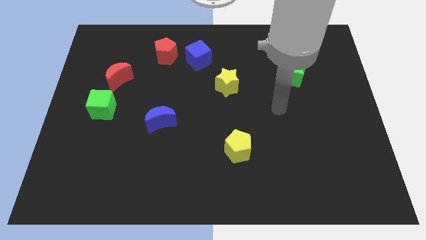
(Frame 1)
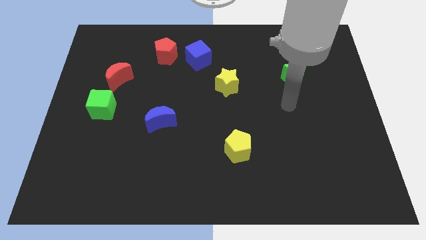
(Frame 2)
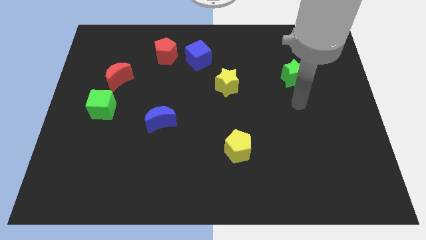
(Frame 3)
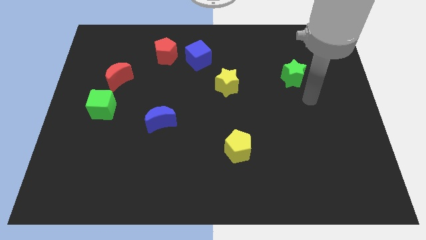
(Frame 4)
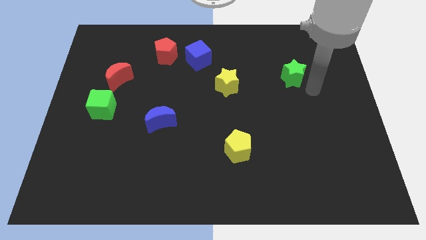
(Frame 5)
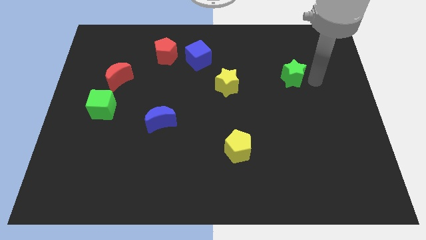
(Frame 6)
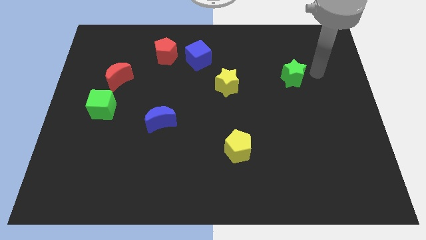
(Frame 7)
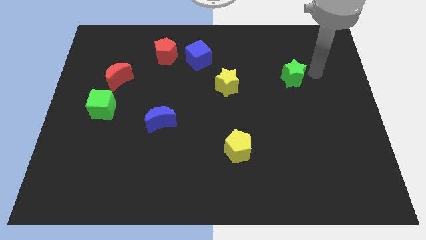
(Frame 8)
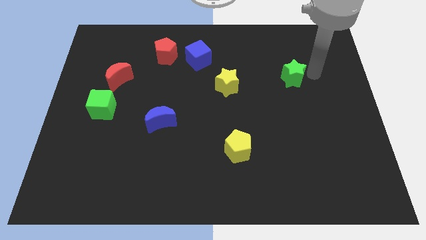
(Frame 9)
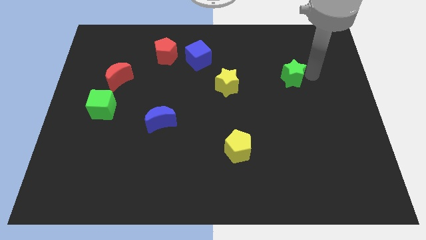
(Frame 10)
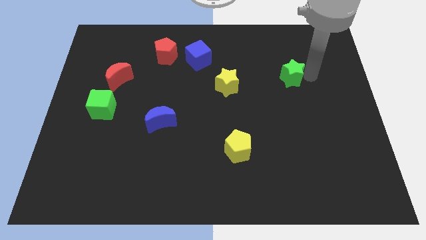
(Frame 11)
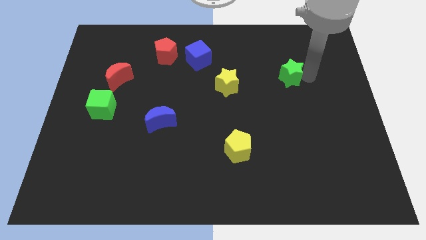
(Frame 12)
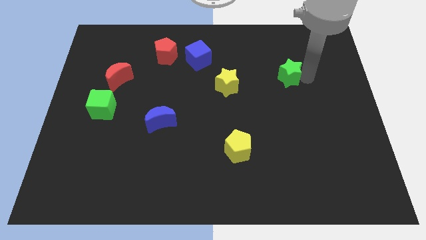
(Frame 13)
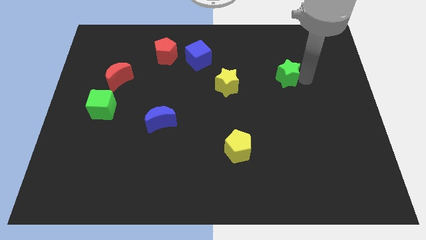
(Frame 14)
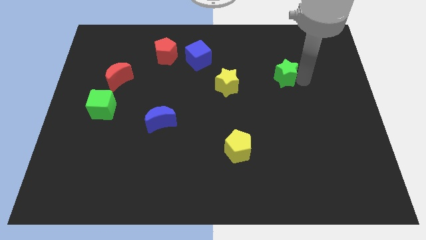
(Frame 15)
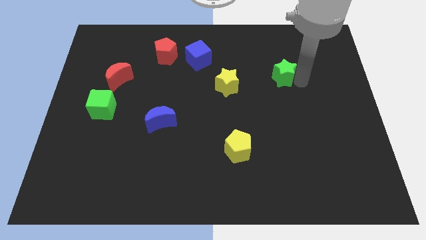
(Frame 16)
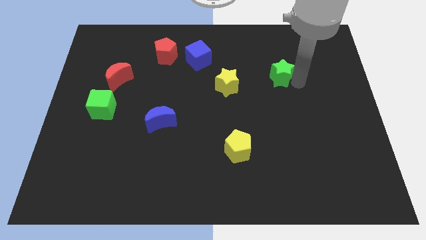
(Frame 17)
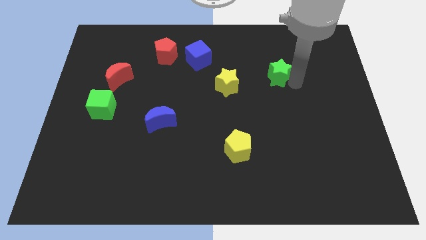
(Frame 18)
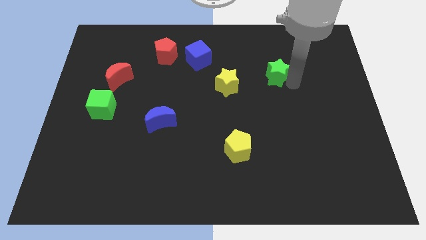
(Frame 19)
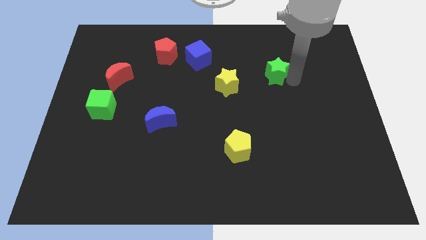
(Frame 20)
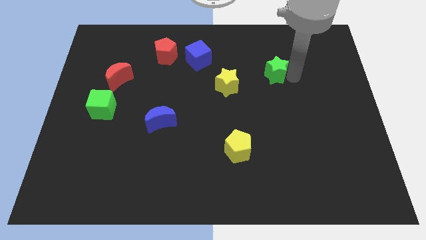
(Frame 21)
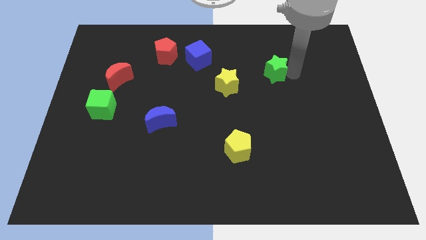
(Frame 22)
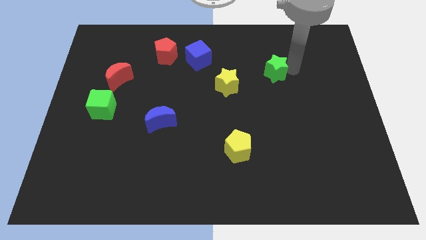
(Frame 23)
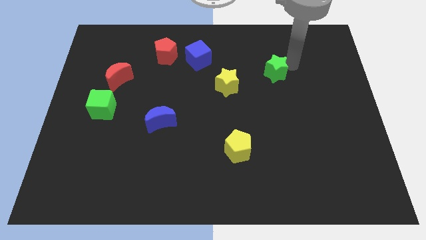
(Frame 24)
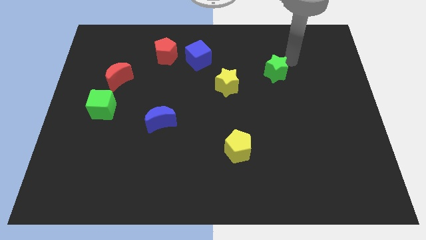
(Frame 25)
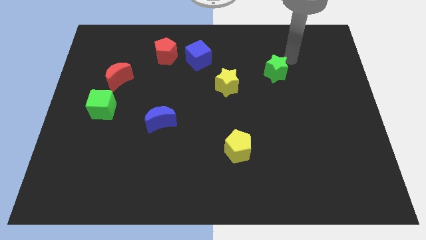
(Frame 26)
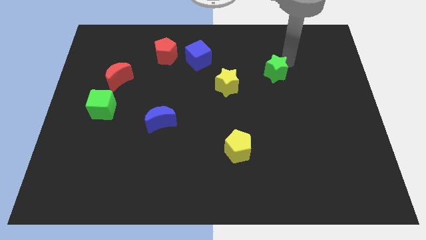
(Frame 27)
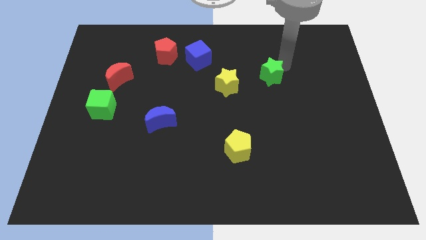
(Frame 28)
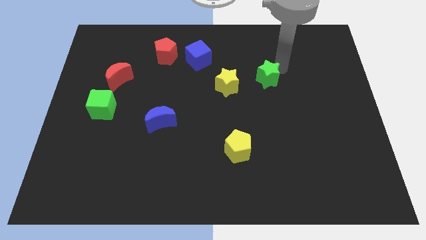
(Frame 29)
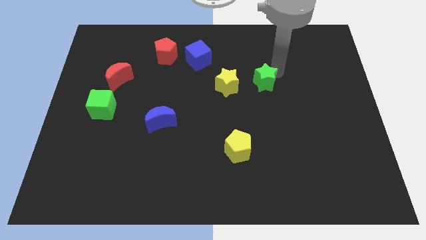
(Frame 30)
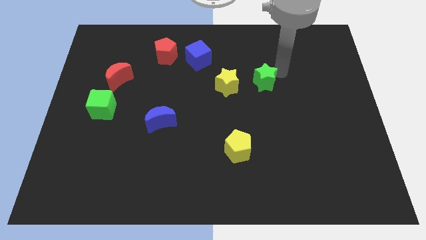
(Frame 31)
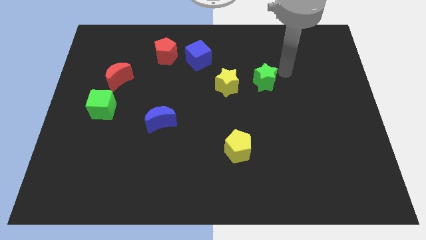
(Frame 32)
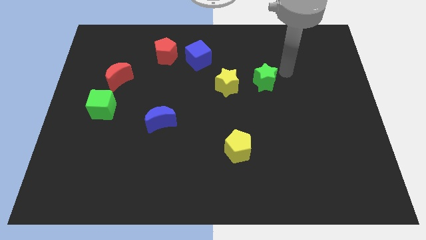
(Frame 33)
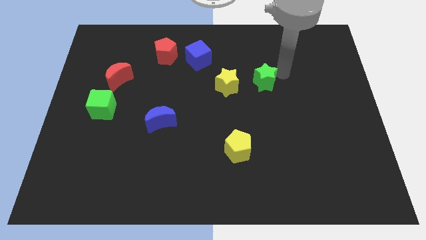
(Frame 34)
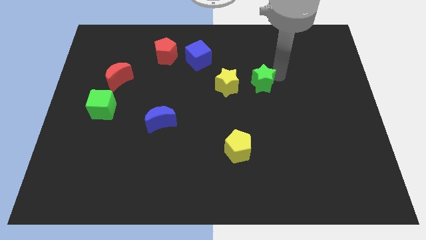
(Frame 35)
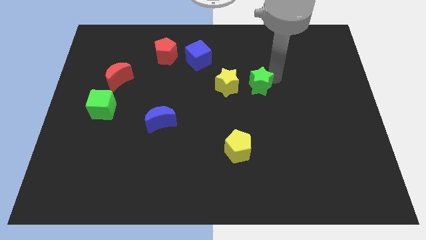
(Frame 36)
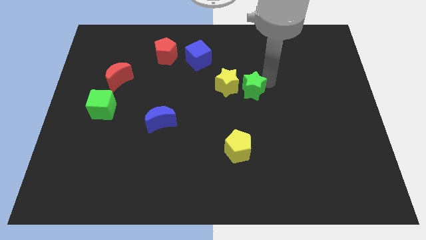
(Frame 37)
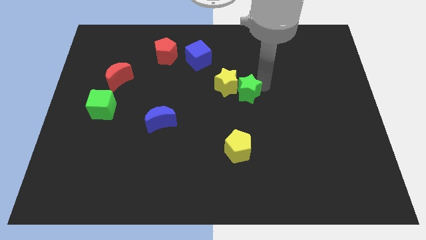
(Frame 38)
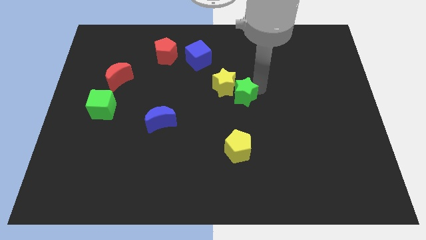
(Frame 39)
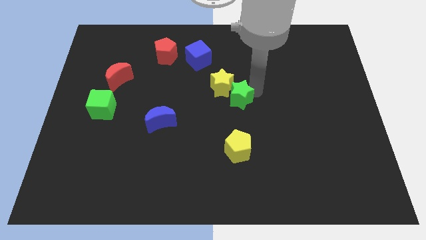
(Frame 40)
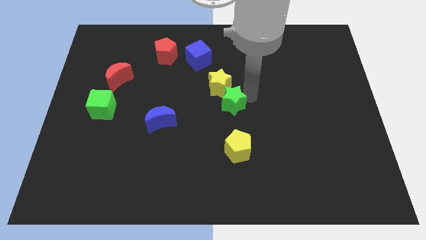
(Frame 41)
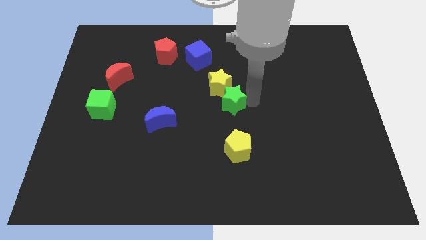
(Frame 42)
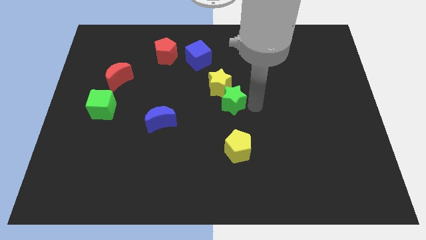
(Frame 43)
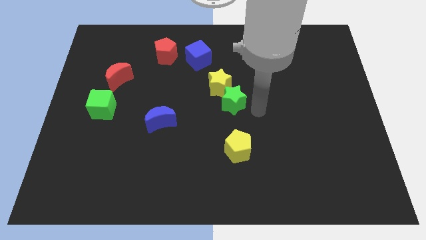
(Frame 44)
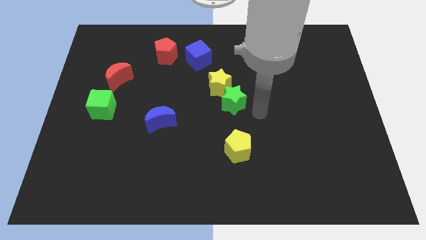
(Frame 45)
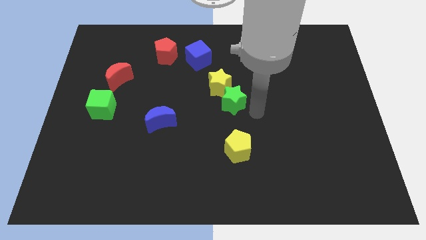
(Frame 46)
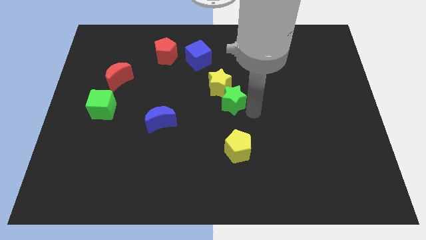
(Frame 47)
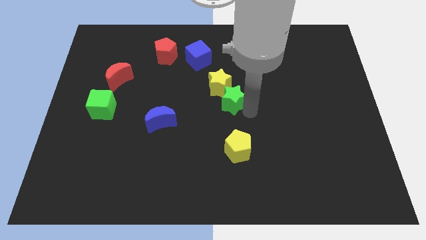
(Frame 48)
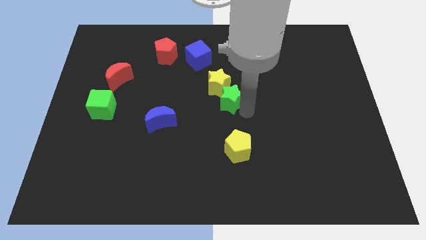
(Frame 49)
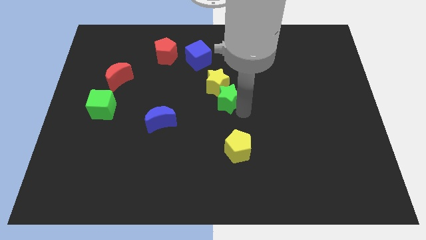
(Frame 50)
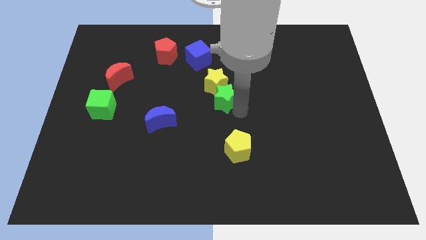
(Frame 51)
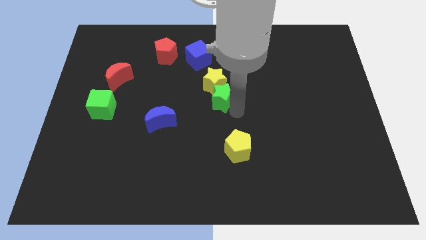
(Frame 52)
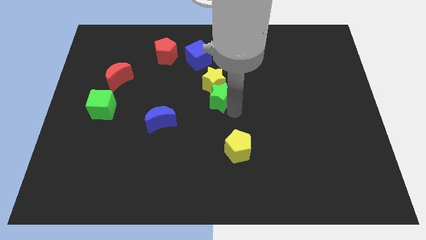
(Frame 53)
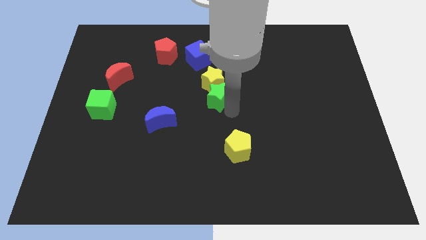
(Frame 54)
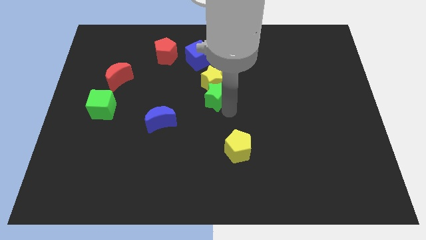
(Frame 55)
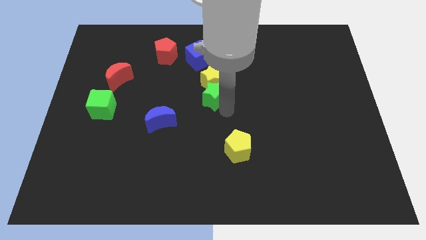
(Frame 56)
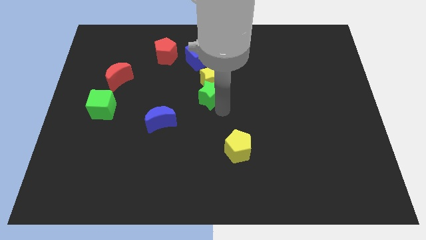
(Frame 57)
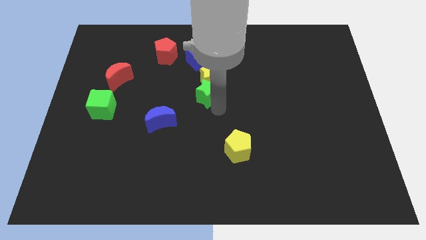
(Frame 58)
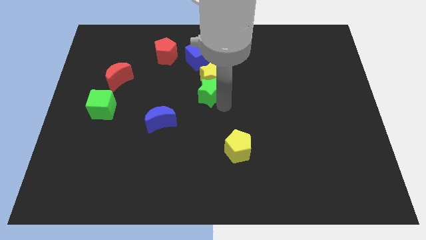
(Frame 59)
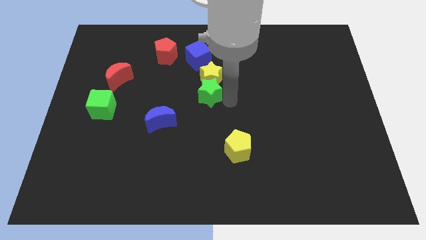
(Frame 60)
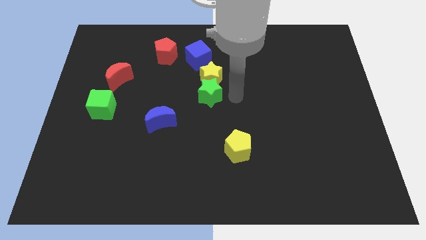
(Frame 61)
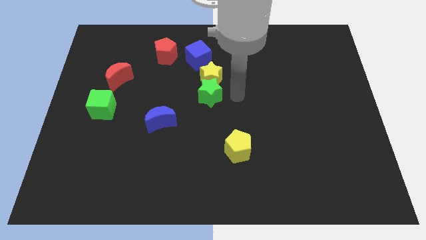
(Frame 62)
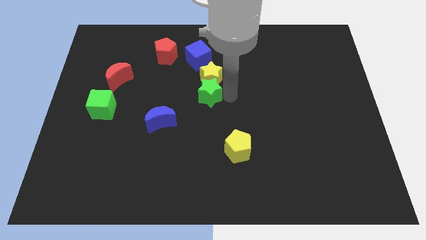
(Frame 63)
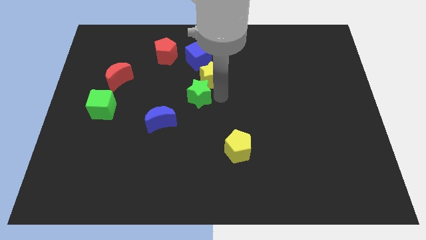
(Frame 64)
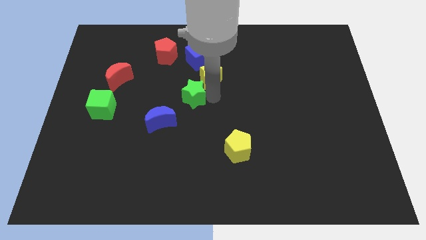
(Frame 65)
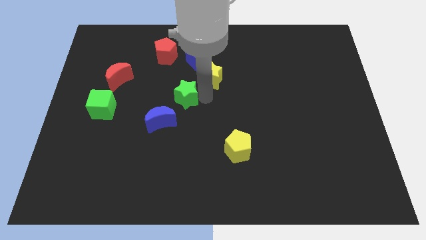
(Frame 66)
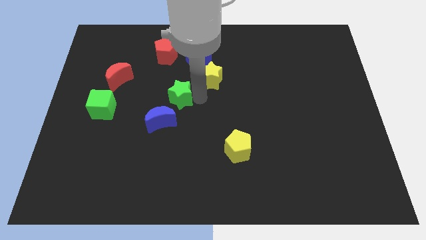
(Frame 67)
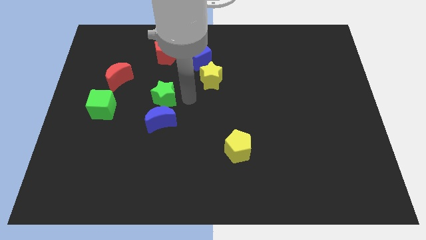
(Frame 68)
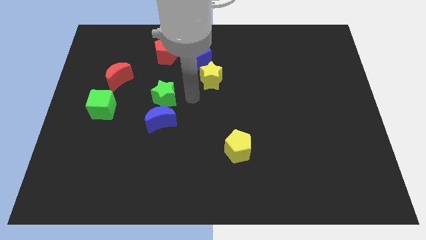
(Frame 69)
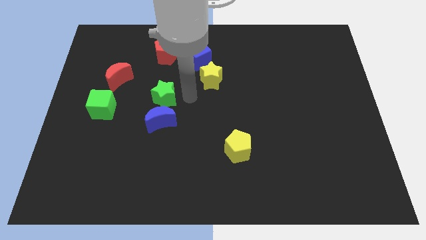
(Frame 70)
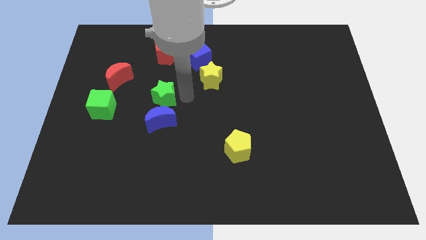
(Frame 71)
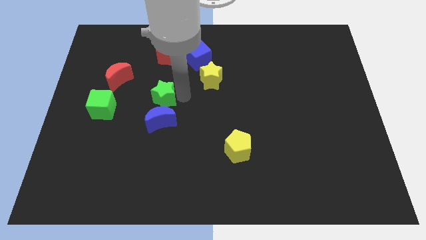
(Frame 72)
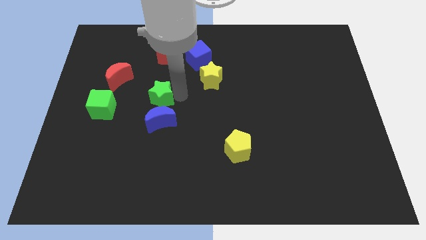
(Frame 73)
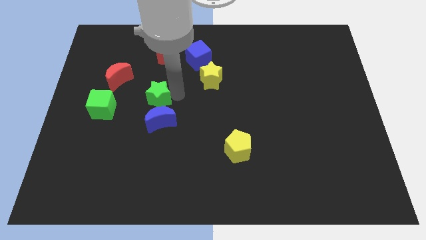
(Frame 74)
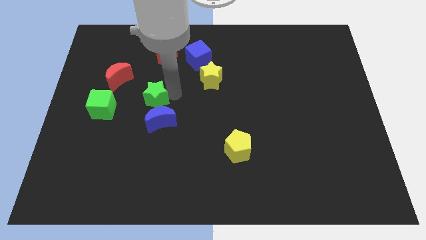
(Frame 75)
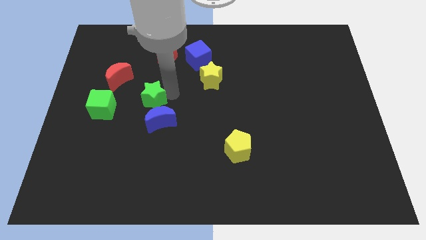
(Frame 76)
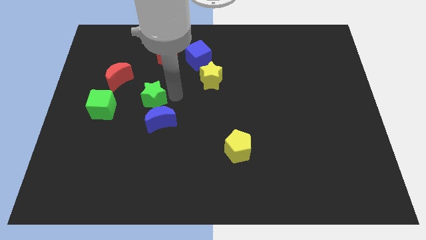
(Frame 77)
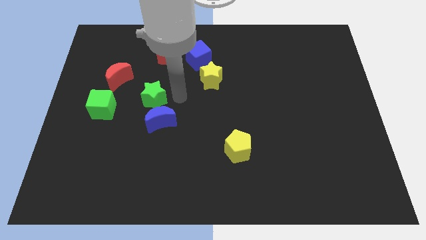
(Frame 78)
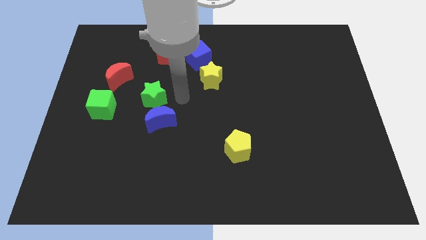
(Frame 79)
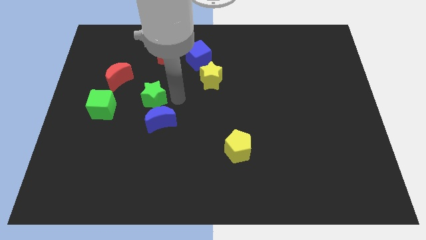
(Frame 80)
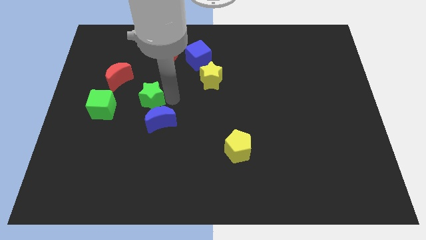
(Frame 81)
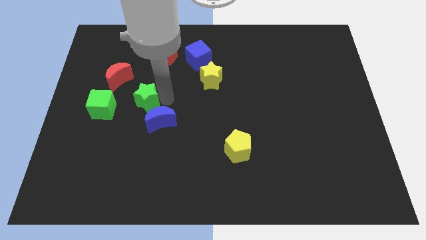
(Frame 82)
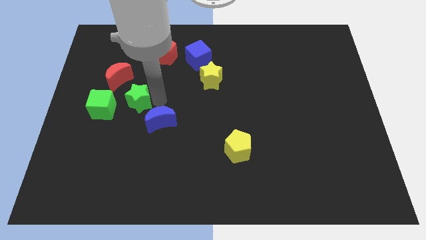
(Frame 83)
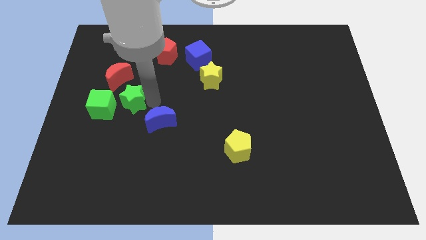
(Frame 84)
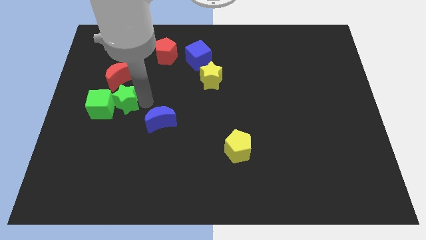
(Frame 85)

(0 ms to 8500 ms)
slide the green star to the green cube
